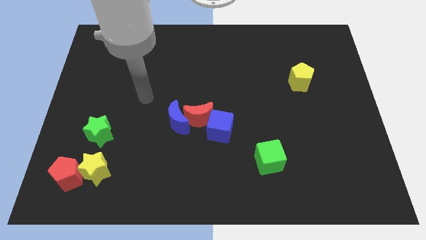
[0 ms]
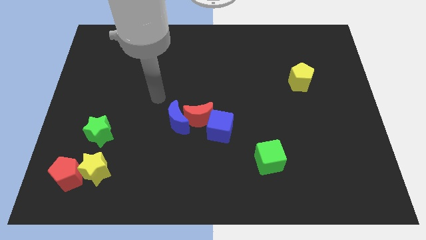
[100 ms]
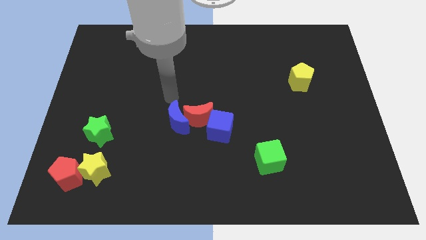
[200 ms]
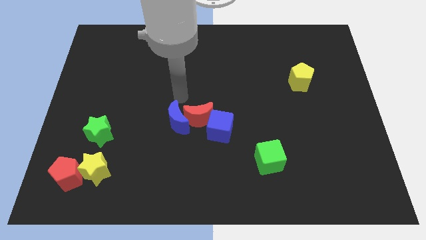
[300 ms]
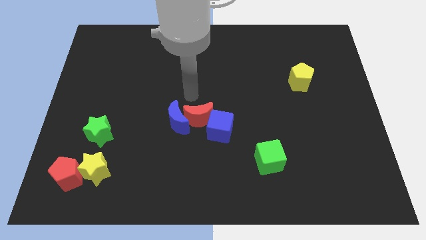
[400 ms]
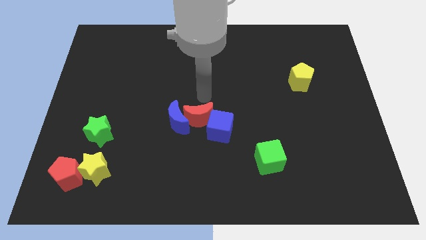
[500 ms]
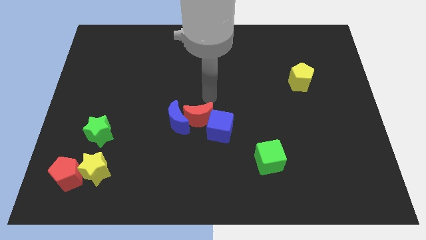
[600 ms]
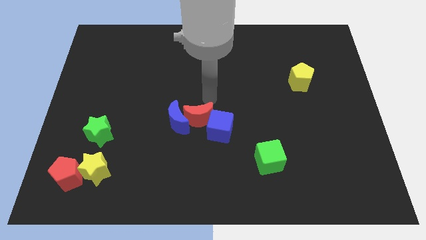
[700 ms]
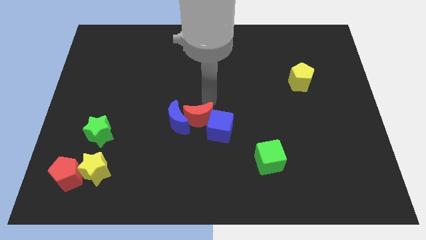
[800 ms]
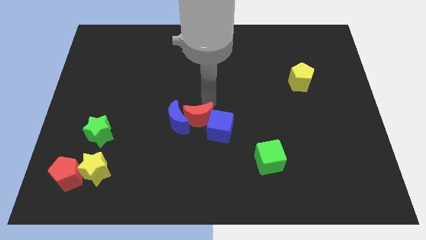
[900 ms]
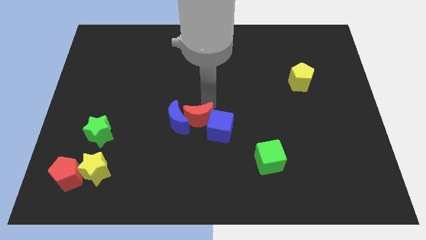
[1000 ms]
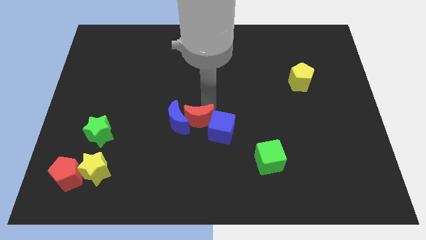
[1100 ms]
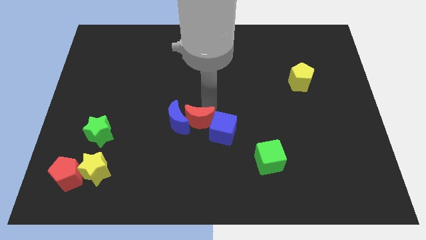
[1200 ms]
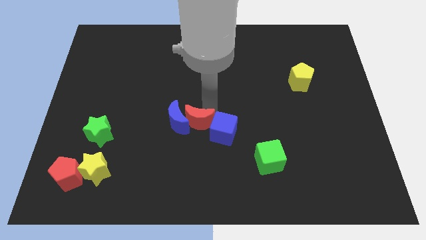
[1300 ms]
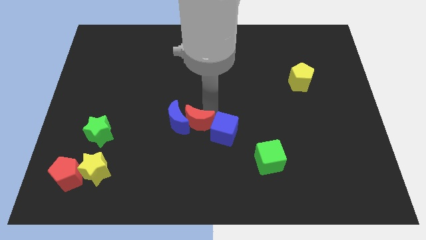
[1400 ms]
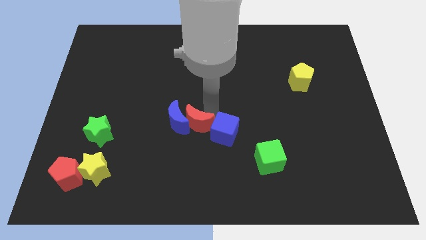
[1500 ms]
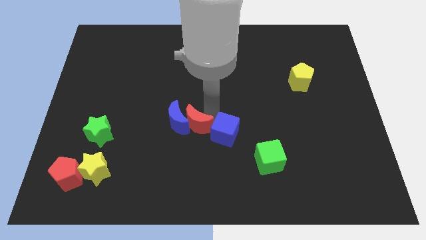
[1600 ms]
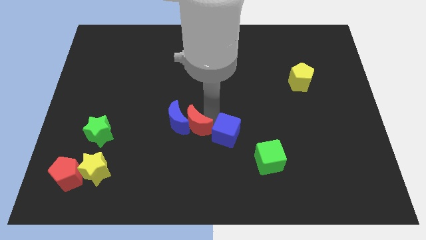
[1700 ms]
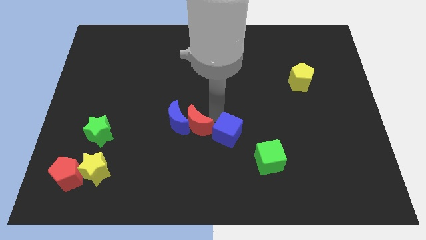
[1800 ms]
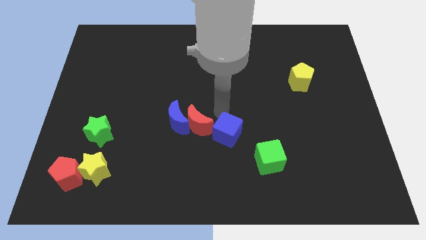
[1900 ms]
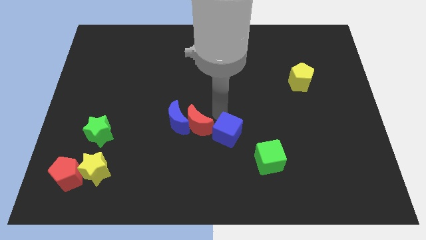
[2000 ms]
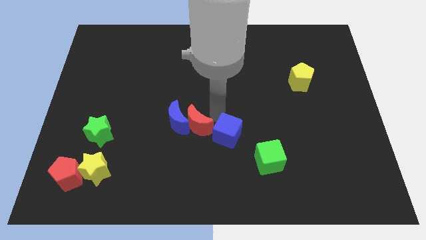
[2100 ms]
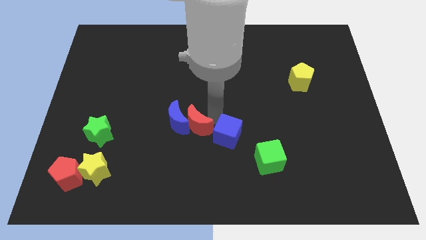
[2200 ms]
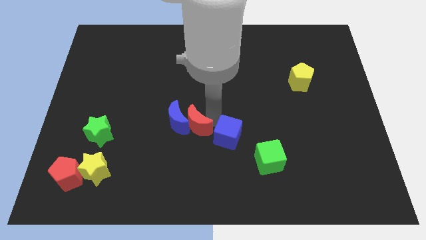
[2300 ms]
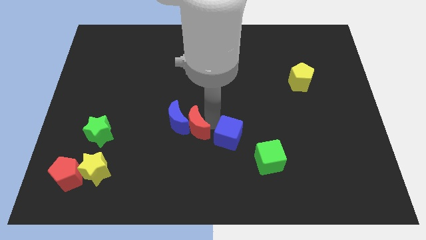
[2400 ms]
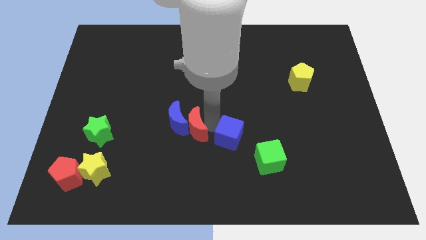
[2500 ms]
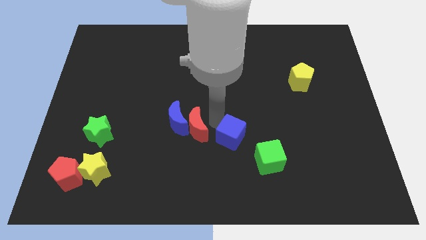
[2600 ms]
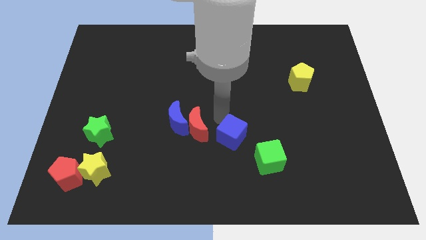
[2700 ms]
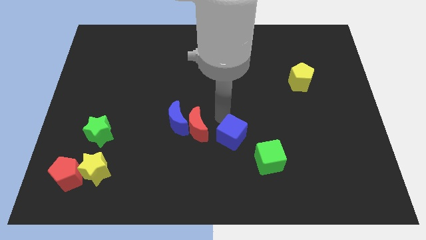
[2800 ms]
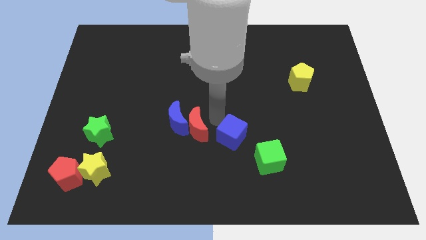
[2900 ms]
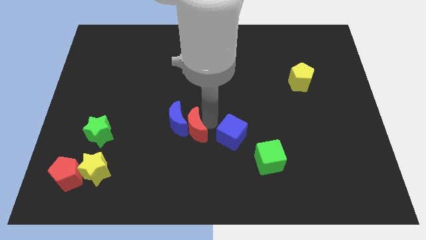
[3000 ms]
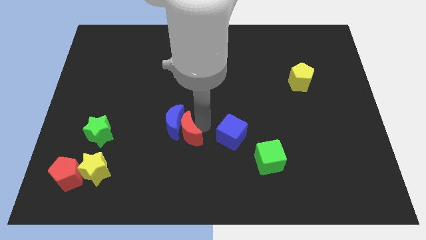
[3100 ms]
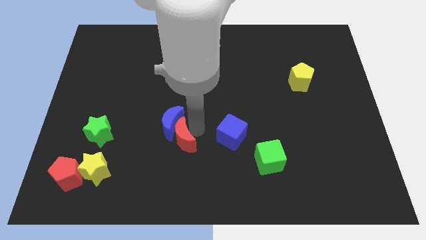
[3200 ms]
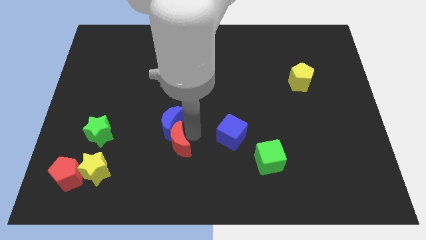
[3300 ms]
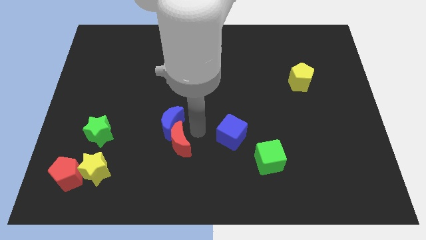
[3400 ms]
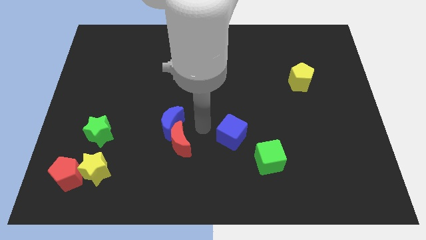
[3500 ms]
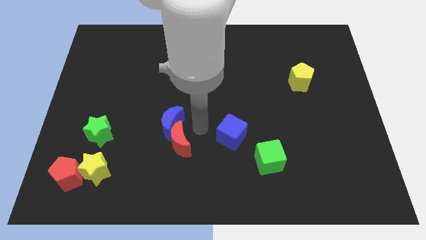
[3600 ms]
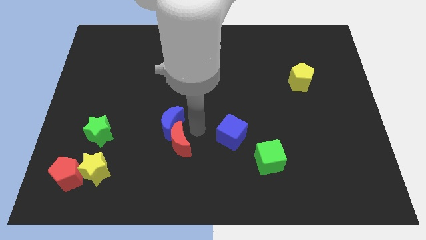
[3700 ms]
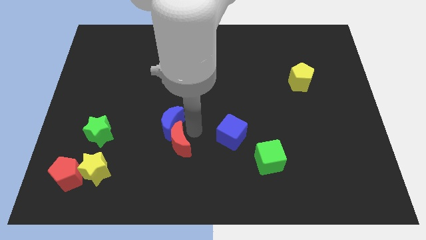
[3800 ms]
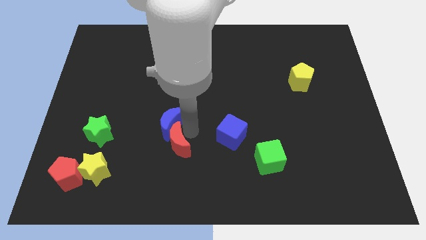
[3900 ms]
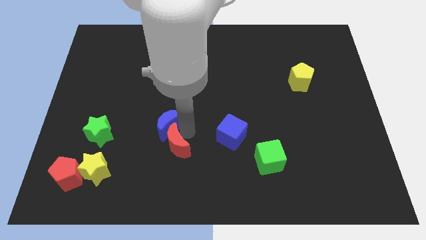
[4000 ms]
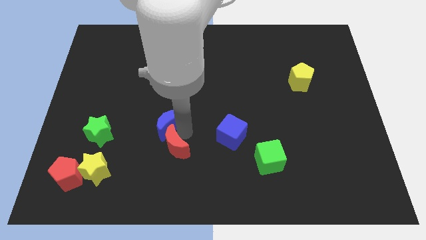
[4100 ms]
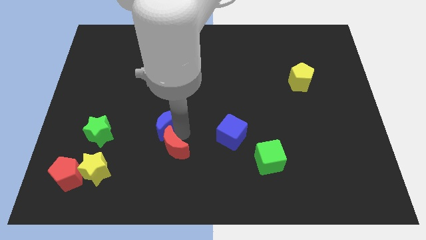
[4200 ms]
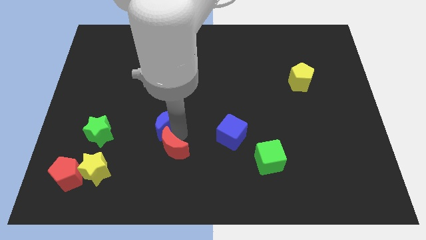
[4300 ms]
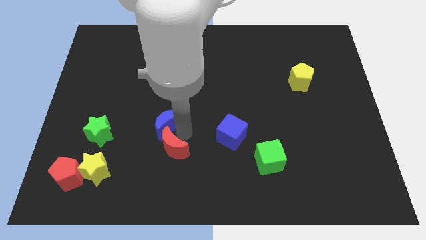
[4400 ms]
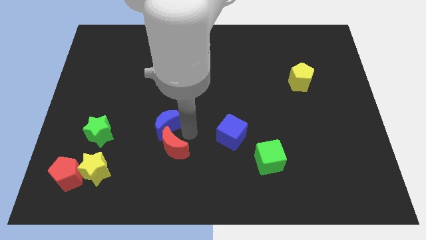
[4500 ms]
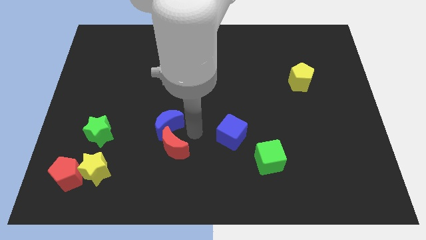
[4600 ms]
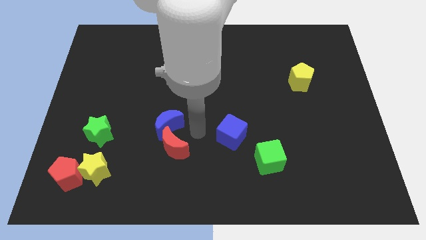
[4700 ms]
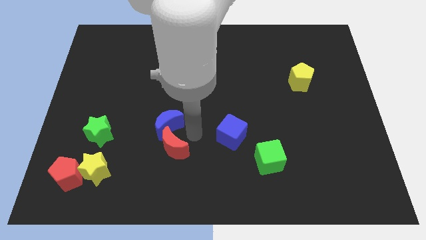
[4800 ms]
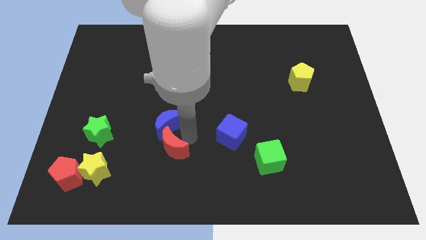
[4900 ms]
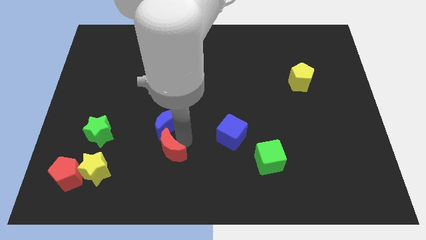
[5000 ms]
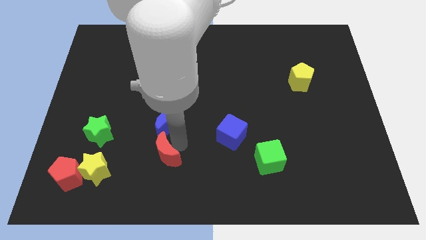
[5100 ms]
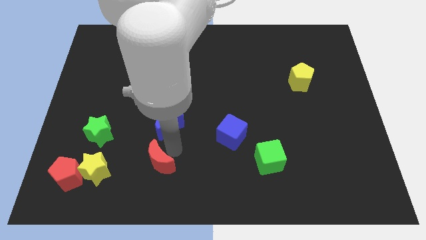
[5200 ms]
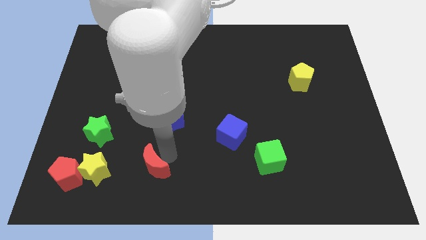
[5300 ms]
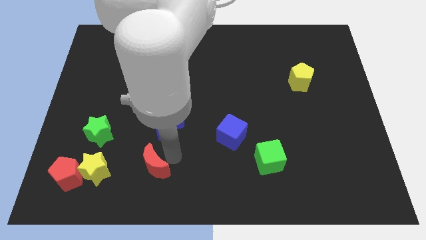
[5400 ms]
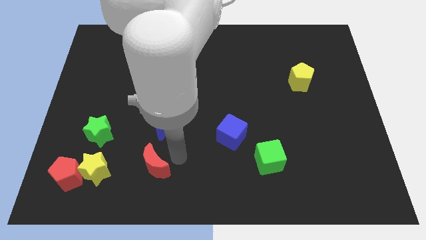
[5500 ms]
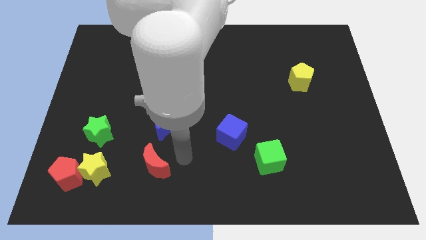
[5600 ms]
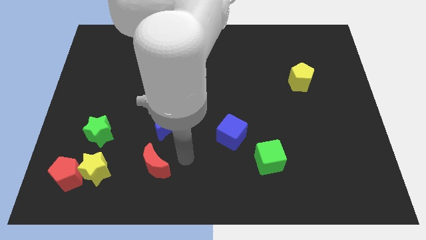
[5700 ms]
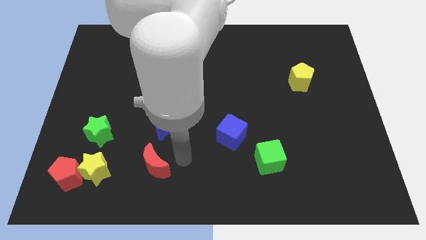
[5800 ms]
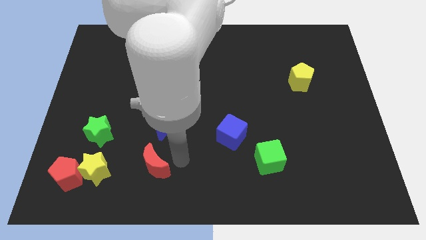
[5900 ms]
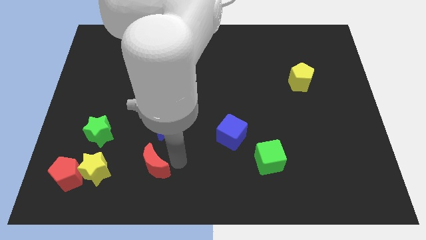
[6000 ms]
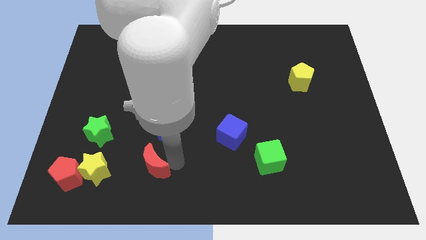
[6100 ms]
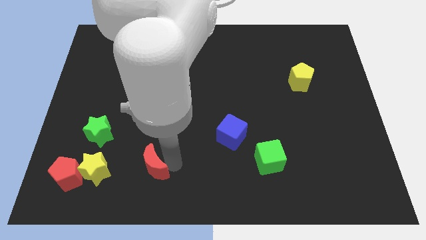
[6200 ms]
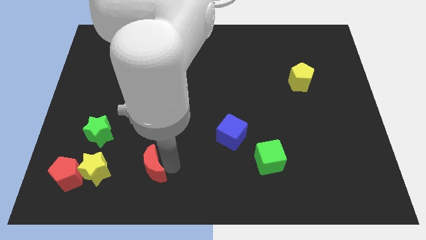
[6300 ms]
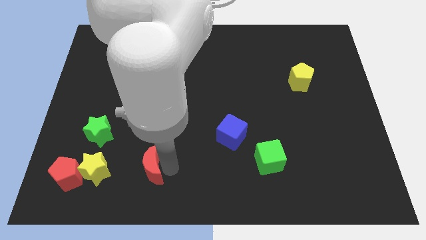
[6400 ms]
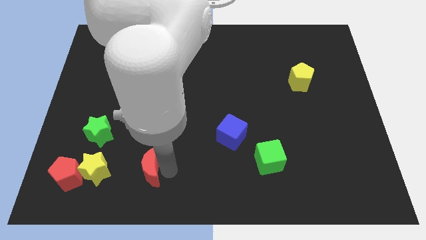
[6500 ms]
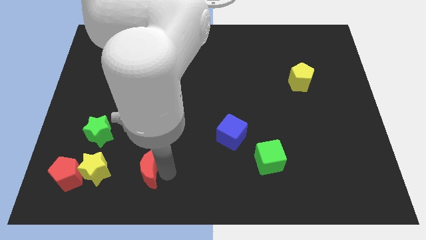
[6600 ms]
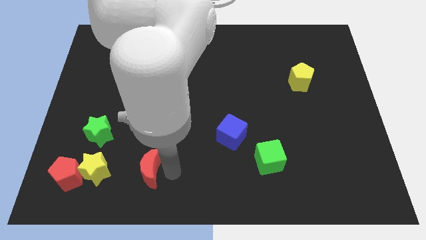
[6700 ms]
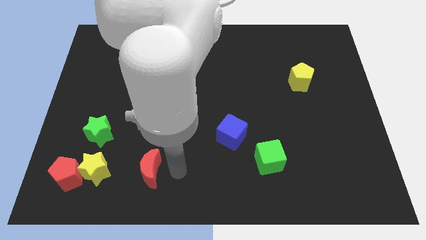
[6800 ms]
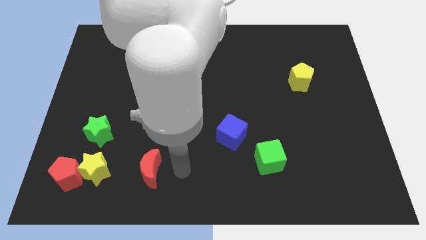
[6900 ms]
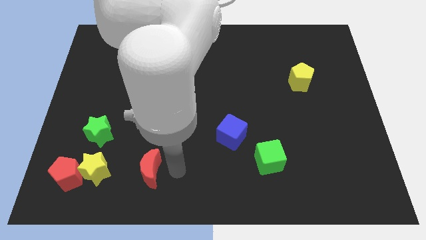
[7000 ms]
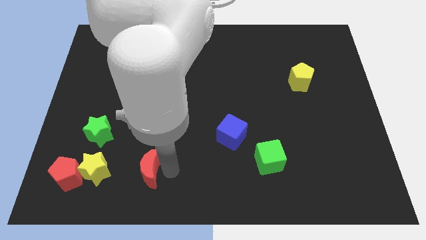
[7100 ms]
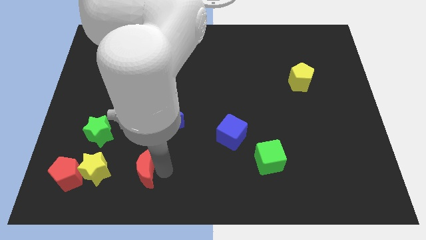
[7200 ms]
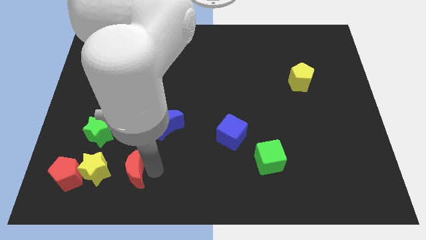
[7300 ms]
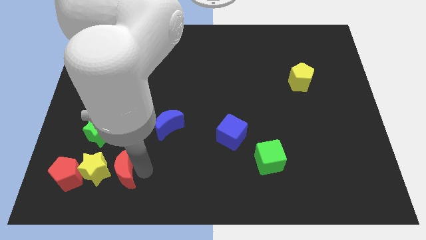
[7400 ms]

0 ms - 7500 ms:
move the red moon to the yellow star
